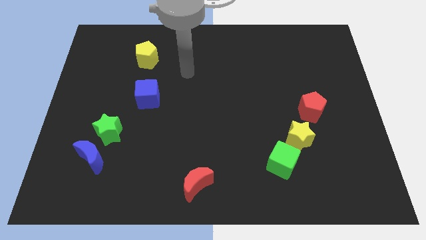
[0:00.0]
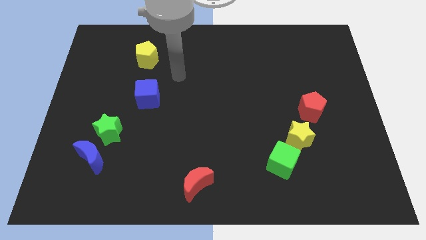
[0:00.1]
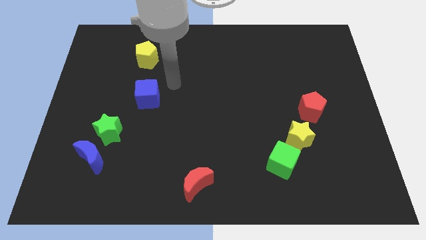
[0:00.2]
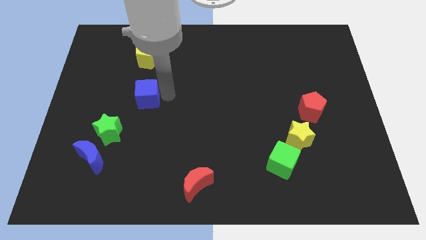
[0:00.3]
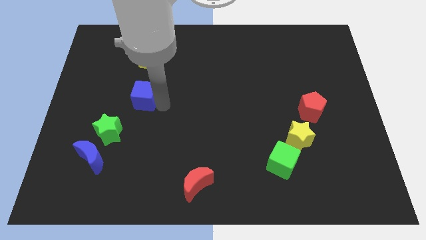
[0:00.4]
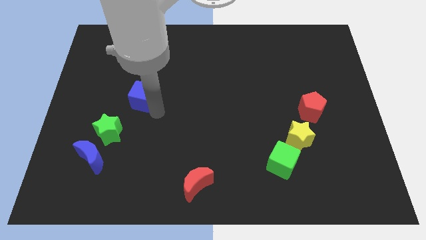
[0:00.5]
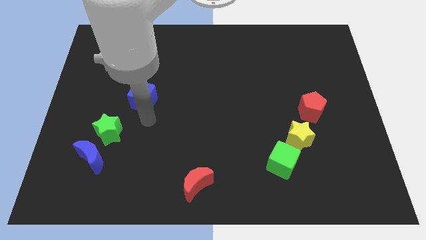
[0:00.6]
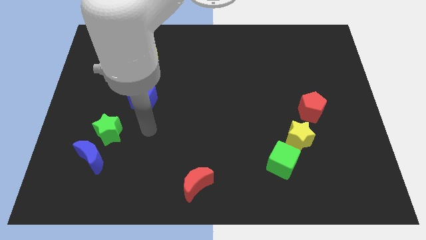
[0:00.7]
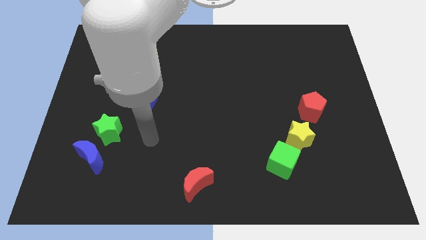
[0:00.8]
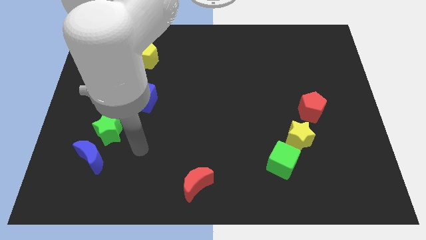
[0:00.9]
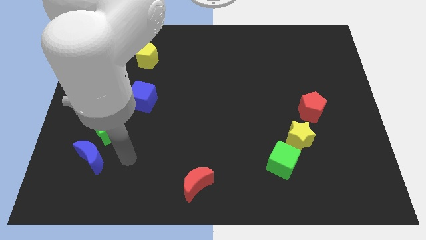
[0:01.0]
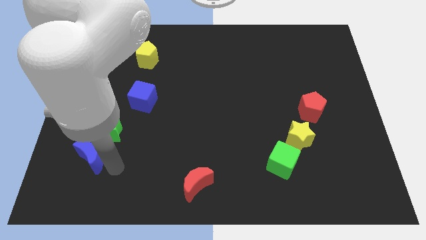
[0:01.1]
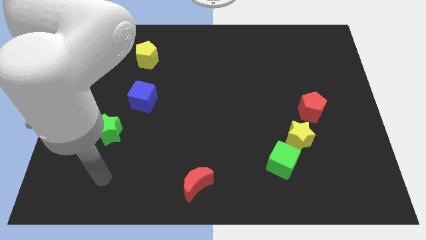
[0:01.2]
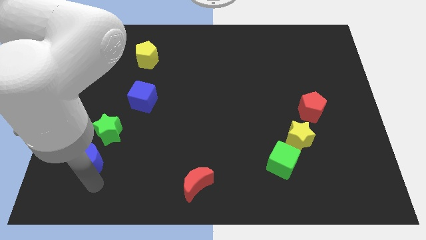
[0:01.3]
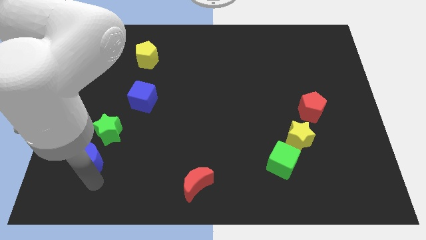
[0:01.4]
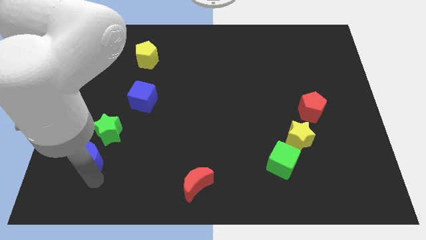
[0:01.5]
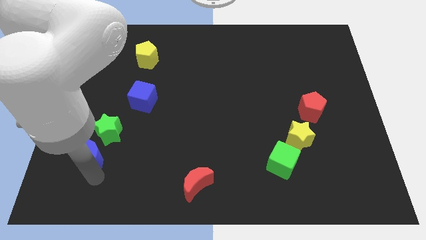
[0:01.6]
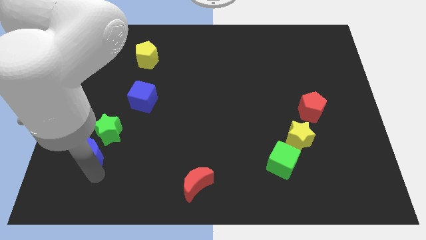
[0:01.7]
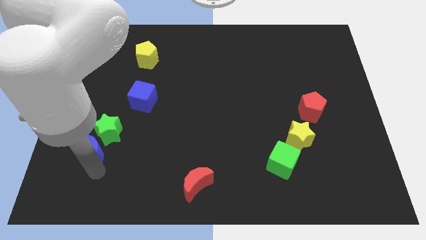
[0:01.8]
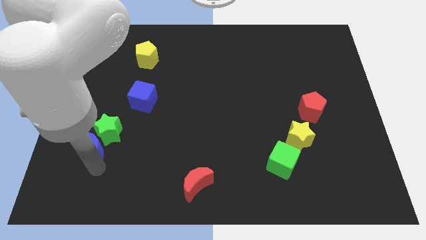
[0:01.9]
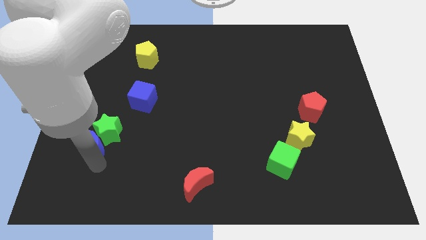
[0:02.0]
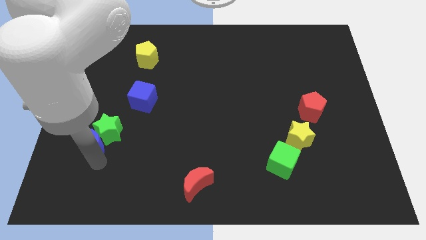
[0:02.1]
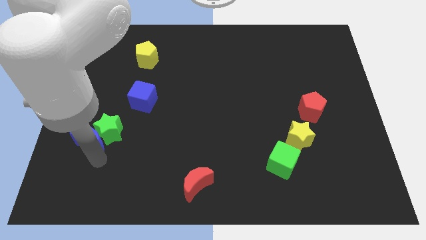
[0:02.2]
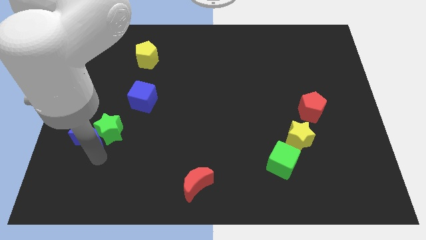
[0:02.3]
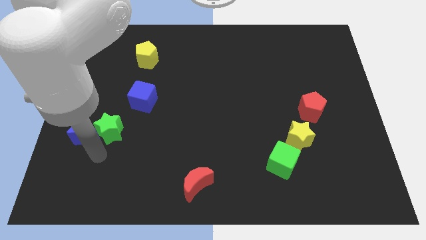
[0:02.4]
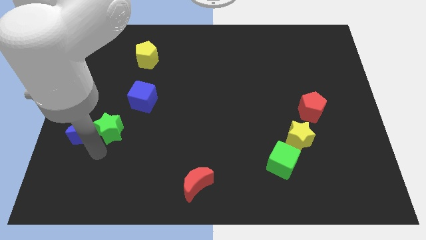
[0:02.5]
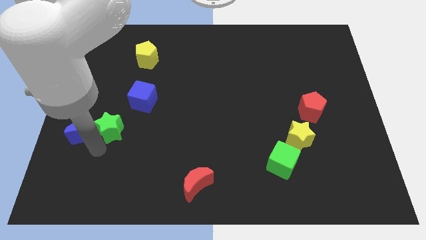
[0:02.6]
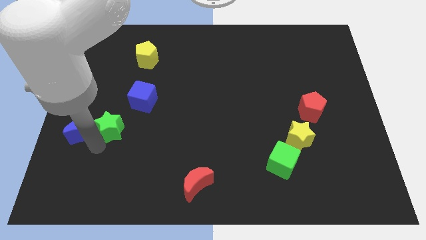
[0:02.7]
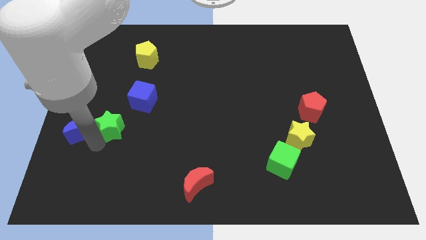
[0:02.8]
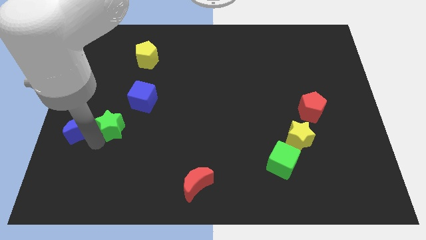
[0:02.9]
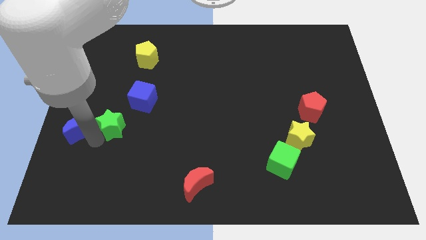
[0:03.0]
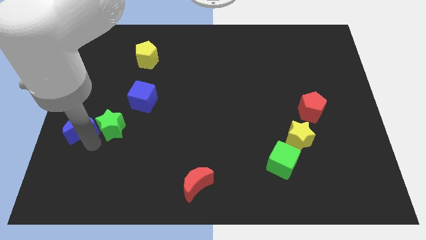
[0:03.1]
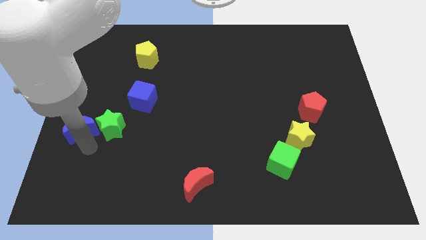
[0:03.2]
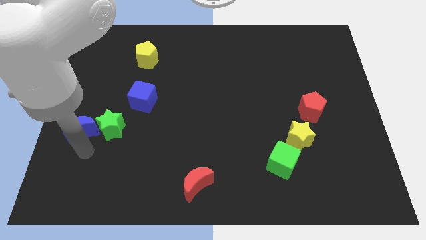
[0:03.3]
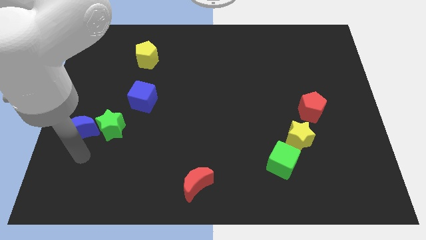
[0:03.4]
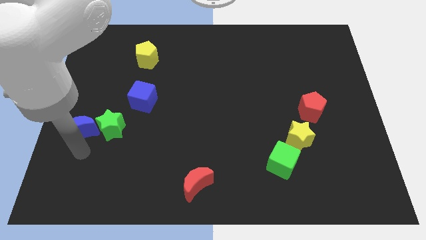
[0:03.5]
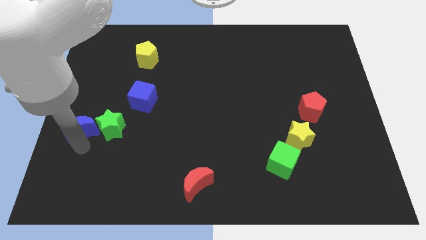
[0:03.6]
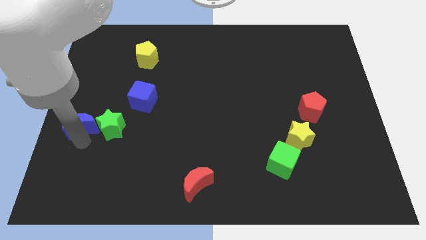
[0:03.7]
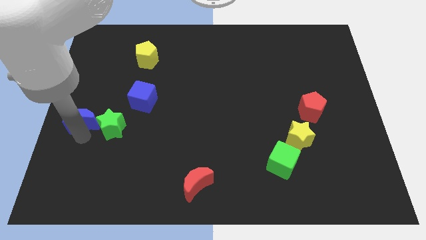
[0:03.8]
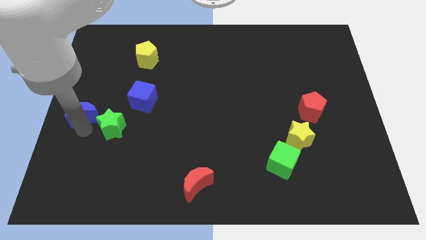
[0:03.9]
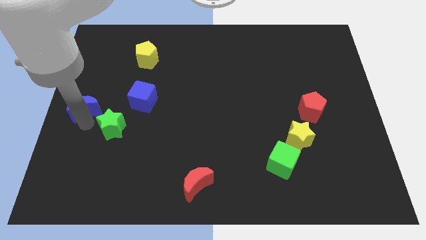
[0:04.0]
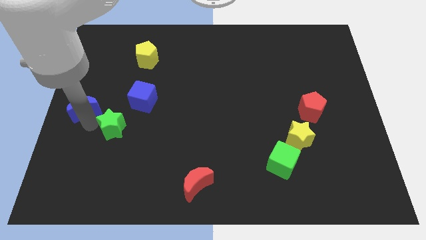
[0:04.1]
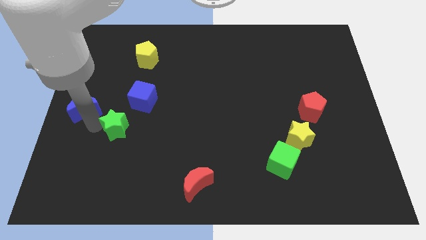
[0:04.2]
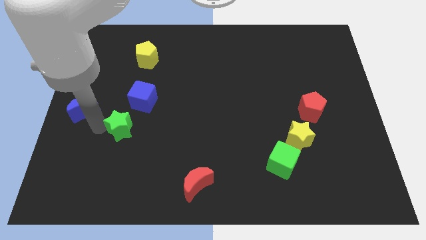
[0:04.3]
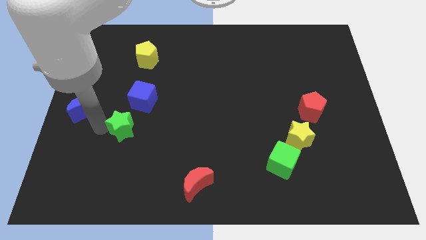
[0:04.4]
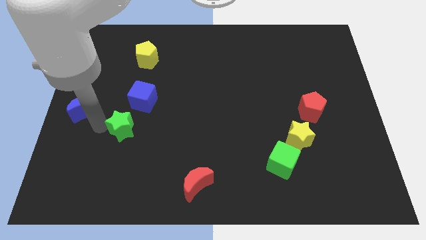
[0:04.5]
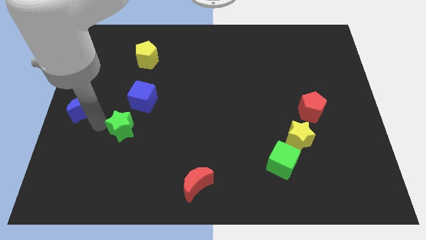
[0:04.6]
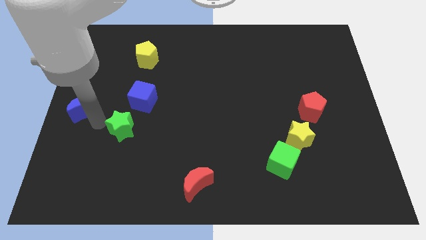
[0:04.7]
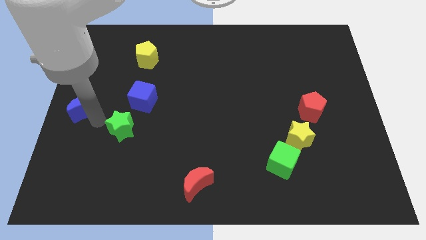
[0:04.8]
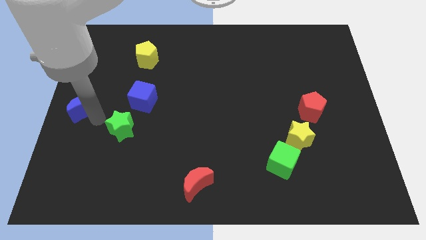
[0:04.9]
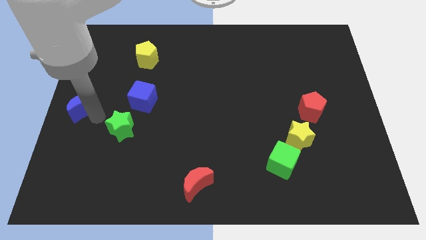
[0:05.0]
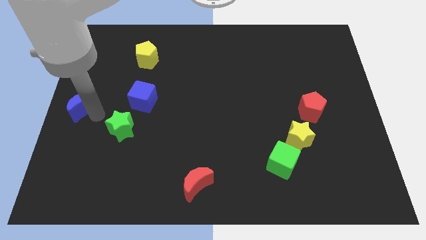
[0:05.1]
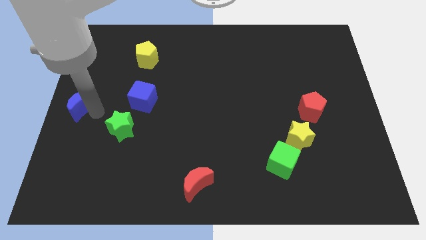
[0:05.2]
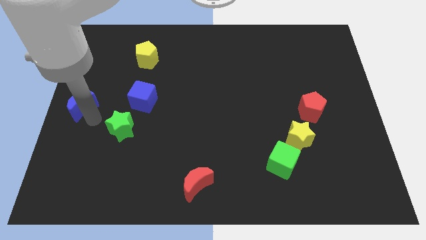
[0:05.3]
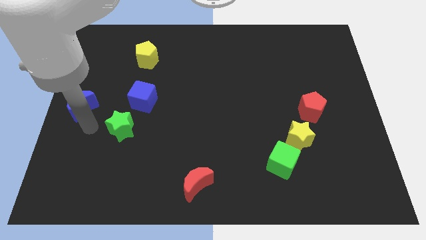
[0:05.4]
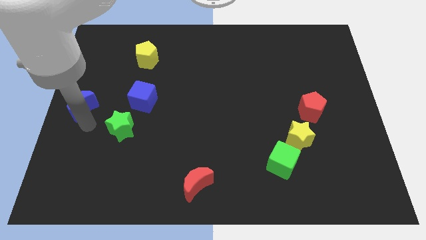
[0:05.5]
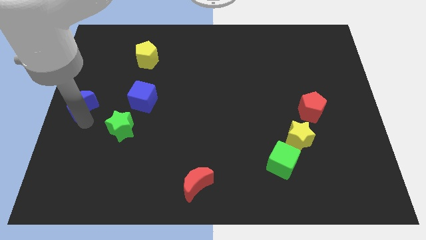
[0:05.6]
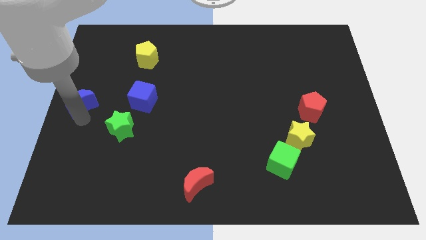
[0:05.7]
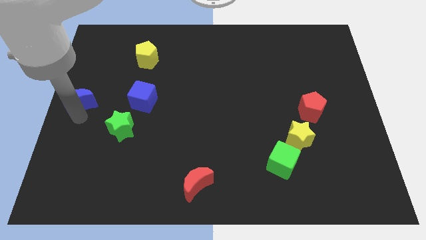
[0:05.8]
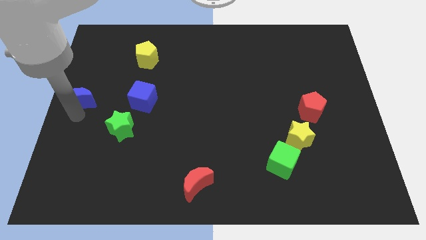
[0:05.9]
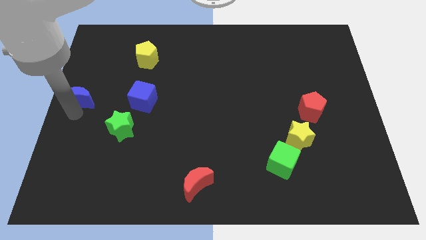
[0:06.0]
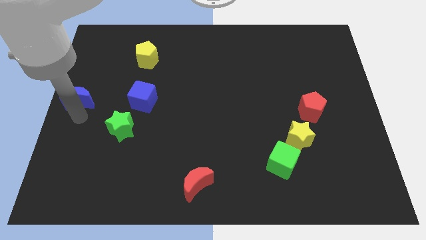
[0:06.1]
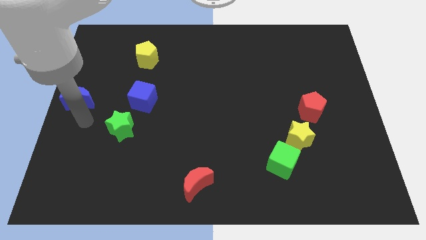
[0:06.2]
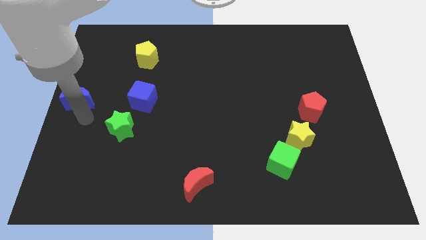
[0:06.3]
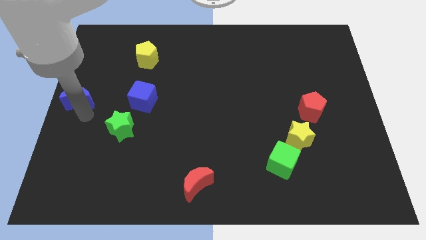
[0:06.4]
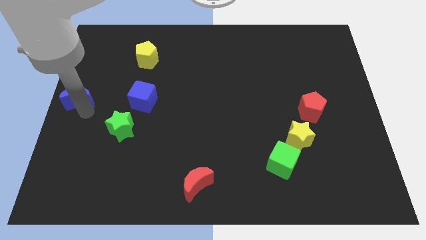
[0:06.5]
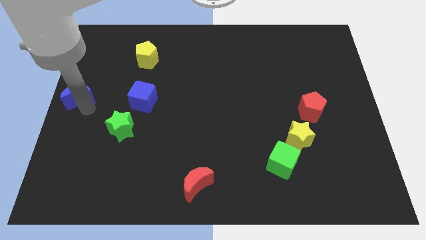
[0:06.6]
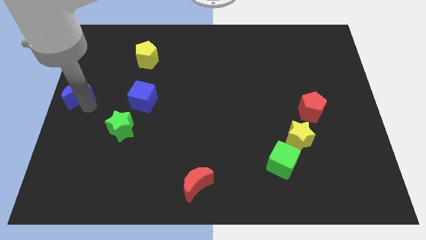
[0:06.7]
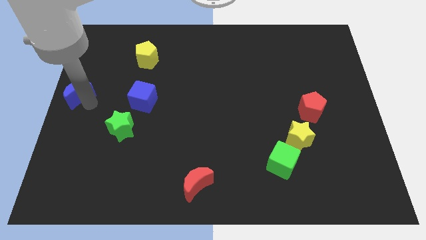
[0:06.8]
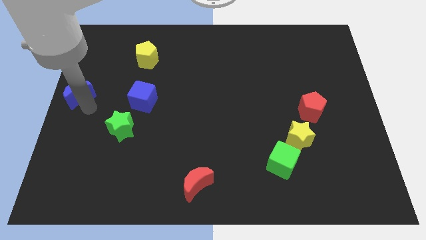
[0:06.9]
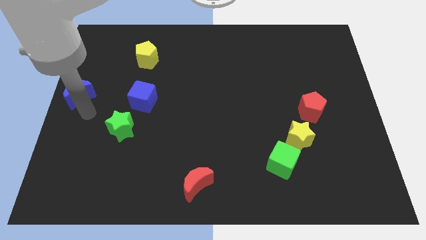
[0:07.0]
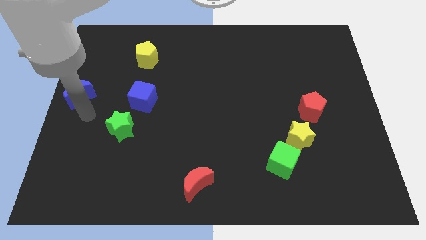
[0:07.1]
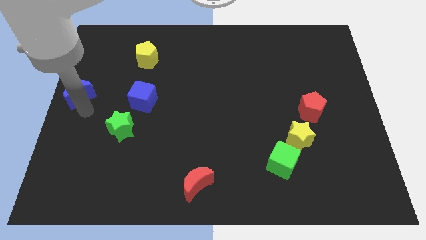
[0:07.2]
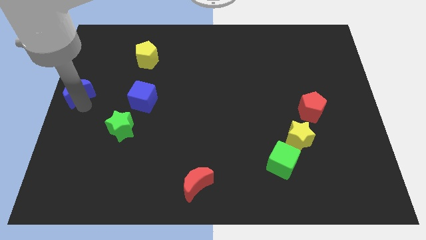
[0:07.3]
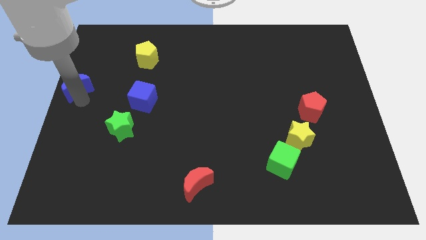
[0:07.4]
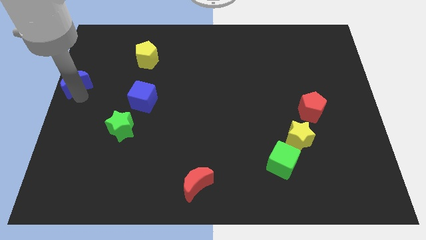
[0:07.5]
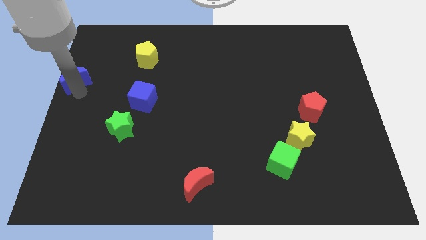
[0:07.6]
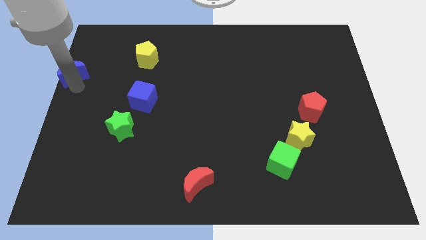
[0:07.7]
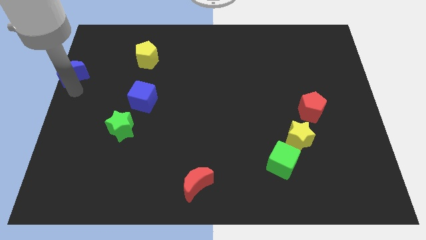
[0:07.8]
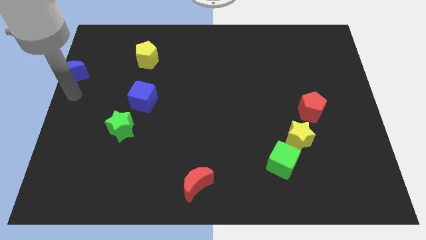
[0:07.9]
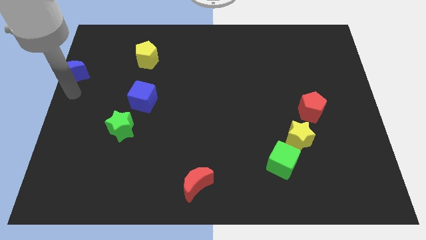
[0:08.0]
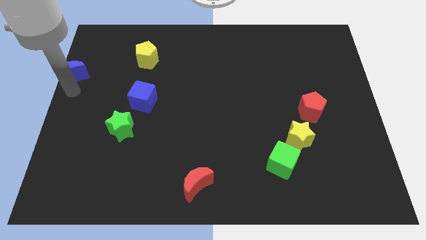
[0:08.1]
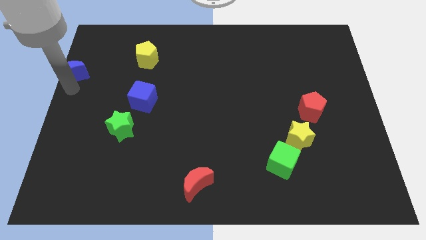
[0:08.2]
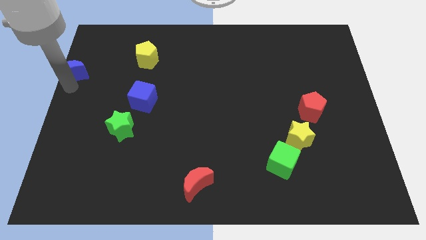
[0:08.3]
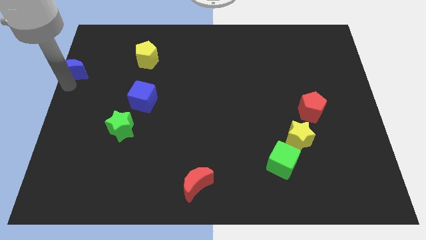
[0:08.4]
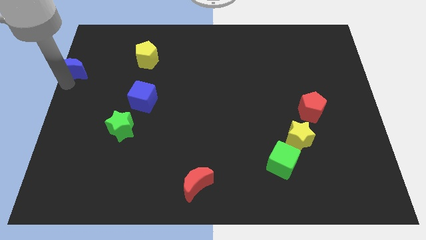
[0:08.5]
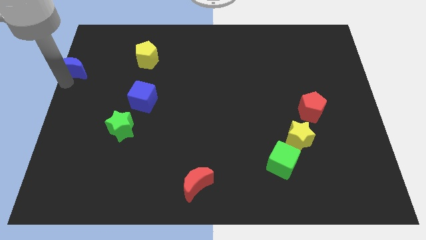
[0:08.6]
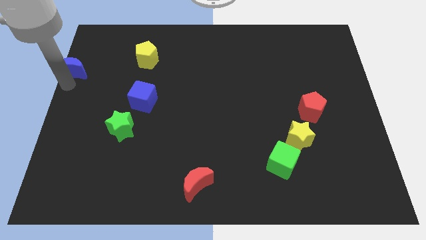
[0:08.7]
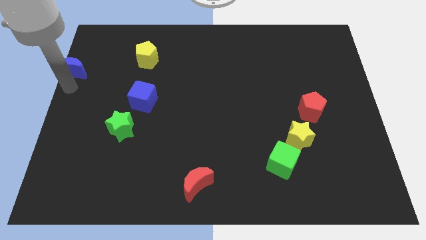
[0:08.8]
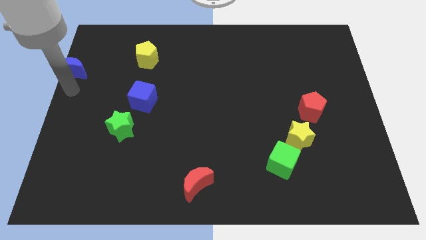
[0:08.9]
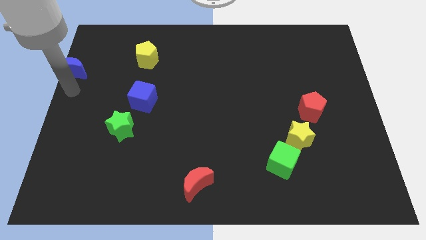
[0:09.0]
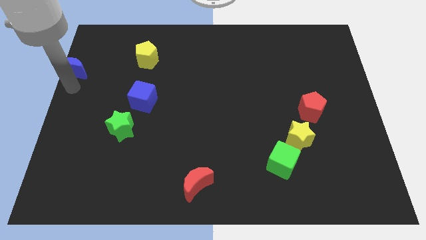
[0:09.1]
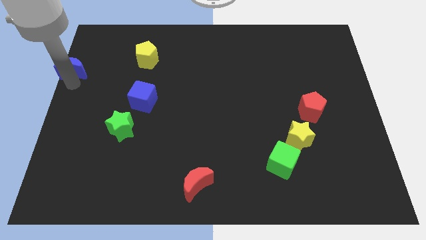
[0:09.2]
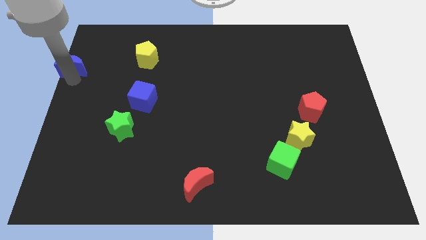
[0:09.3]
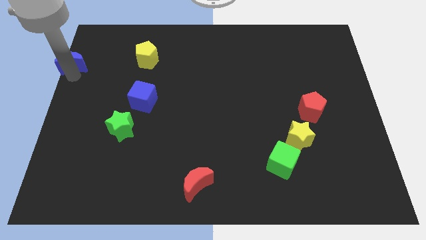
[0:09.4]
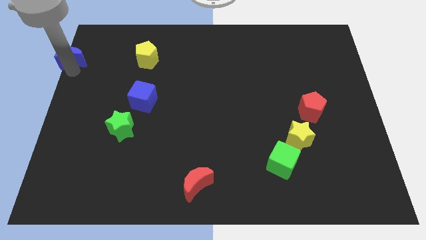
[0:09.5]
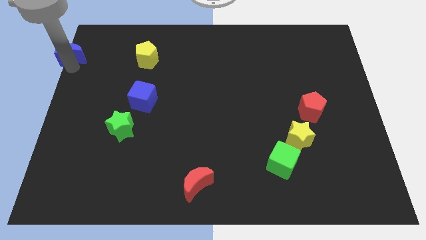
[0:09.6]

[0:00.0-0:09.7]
push the blue moon to the upper left corner
